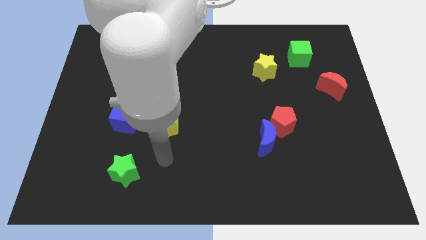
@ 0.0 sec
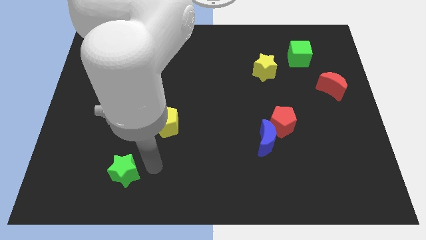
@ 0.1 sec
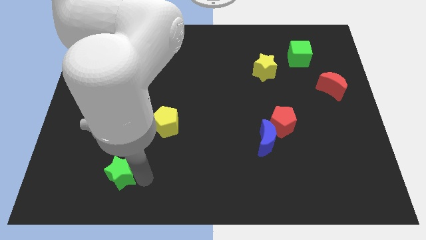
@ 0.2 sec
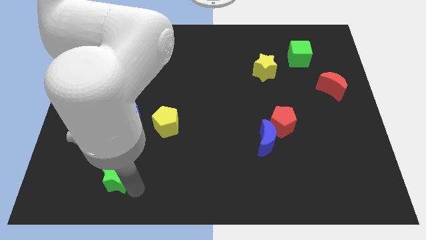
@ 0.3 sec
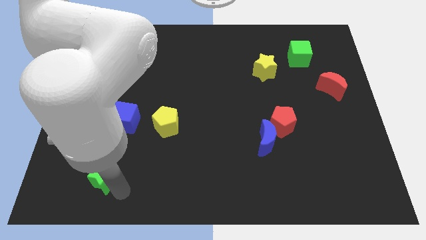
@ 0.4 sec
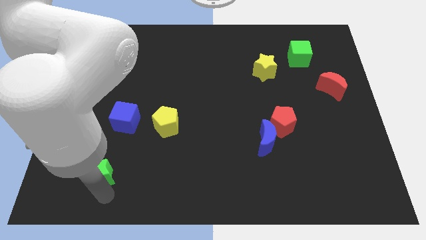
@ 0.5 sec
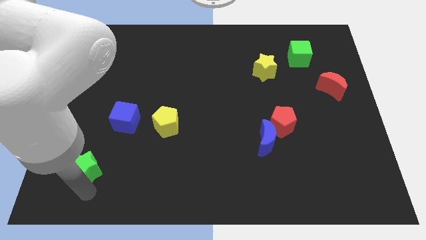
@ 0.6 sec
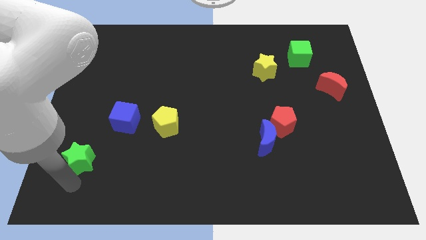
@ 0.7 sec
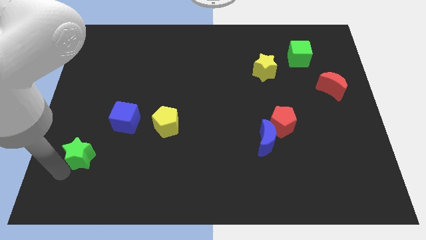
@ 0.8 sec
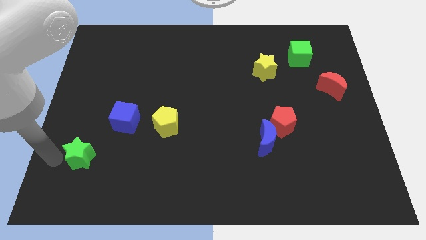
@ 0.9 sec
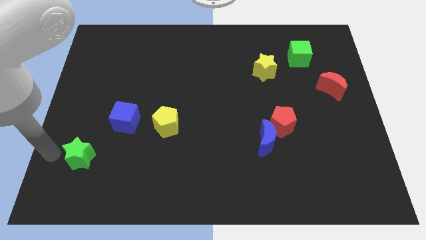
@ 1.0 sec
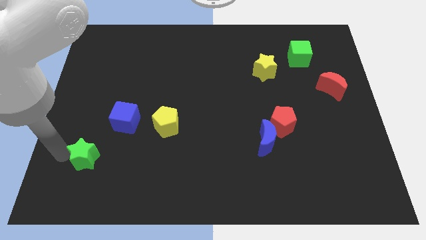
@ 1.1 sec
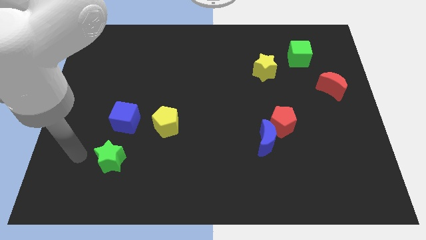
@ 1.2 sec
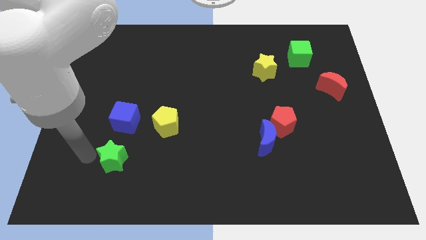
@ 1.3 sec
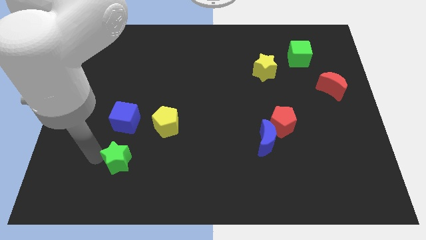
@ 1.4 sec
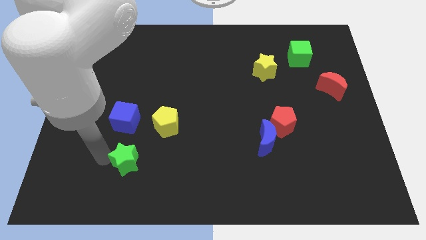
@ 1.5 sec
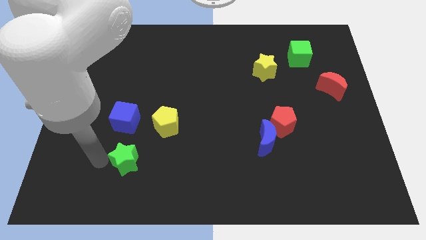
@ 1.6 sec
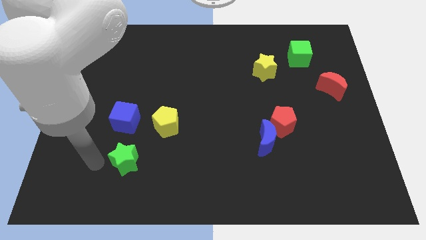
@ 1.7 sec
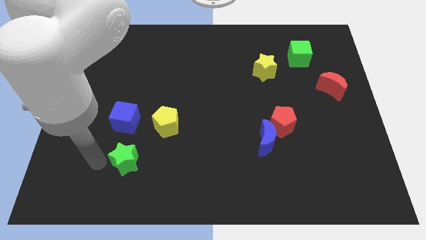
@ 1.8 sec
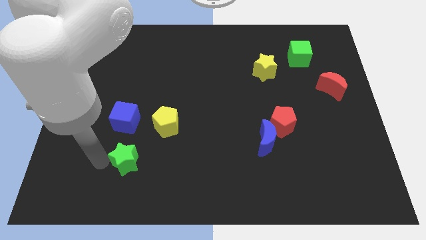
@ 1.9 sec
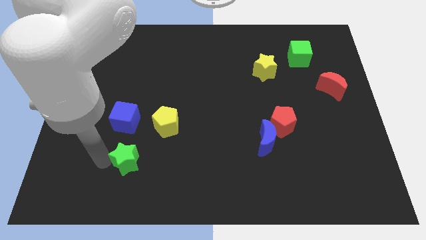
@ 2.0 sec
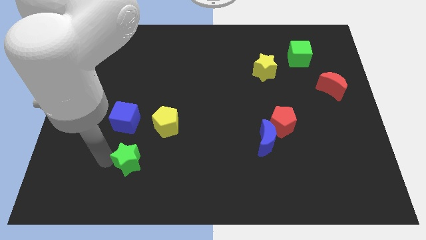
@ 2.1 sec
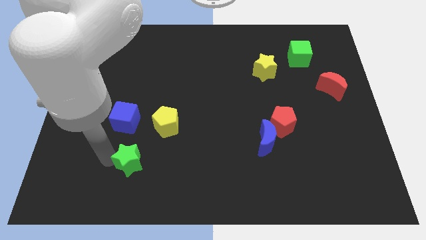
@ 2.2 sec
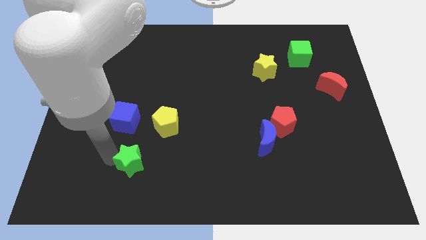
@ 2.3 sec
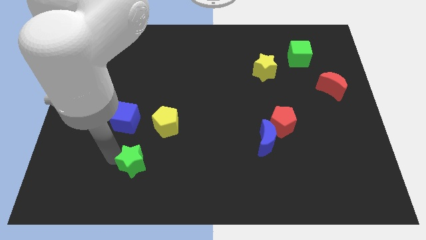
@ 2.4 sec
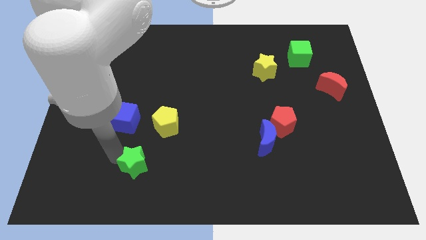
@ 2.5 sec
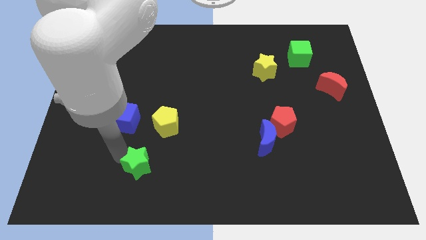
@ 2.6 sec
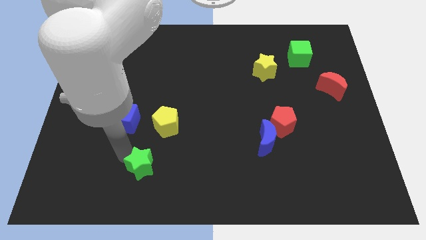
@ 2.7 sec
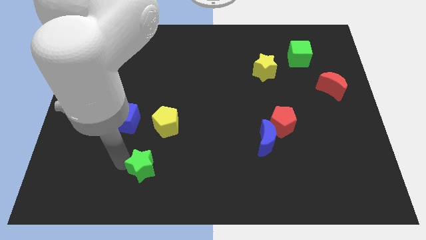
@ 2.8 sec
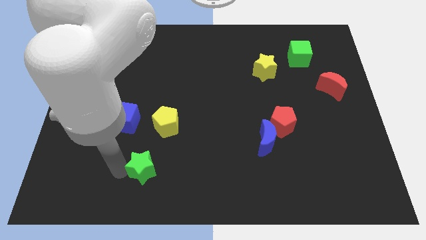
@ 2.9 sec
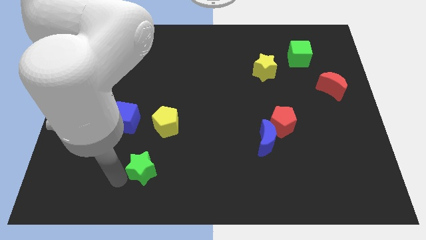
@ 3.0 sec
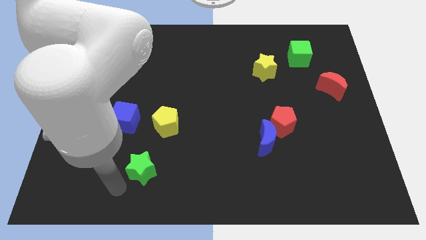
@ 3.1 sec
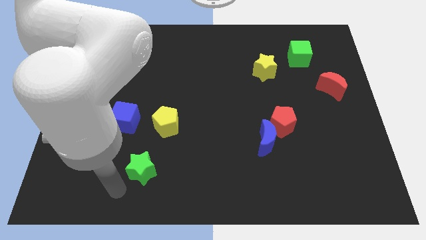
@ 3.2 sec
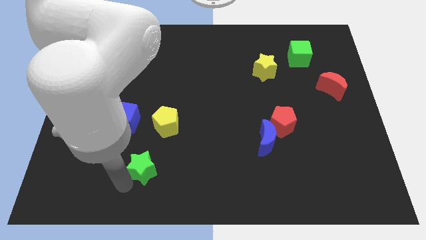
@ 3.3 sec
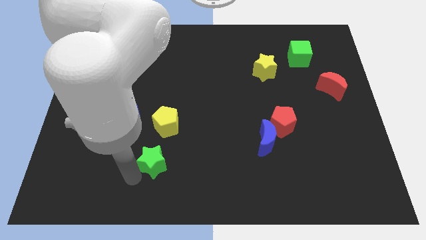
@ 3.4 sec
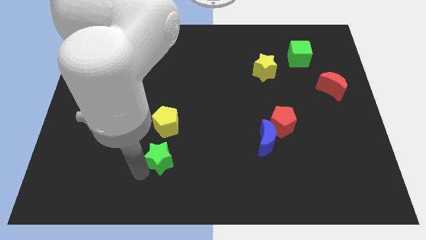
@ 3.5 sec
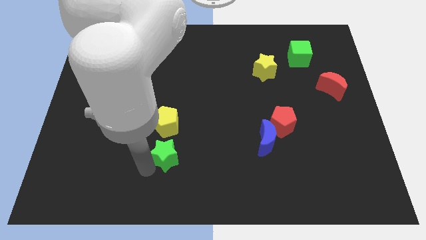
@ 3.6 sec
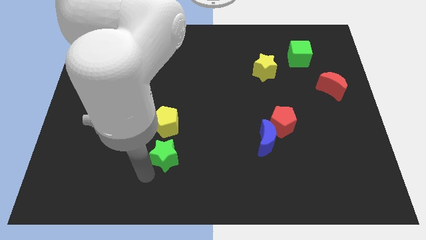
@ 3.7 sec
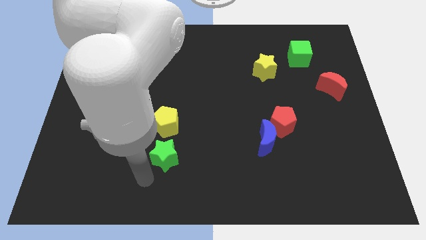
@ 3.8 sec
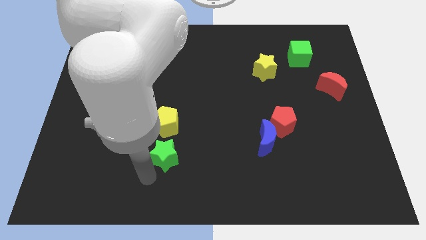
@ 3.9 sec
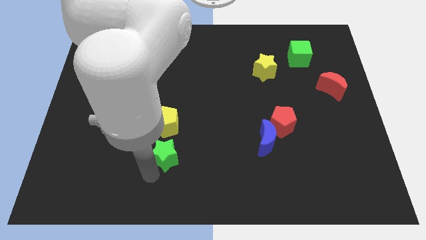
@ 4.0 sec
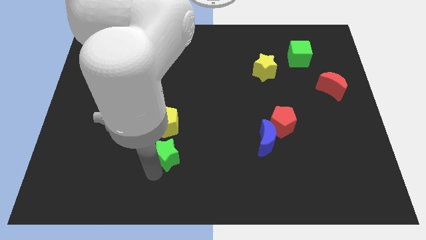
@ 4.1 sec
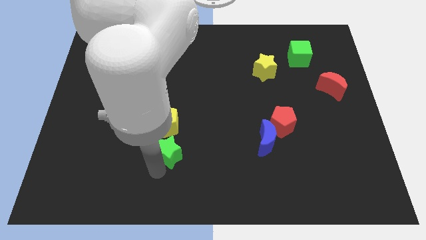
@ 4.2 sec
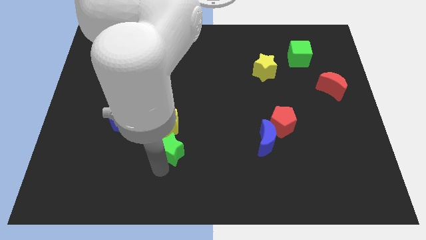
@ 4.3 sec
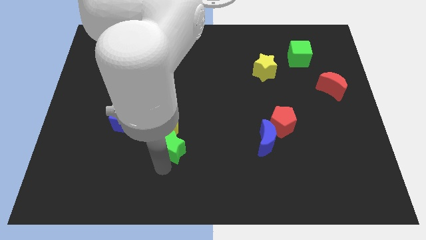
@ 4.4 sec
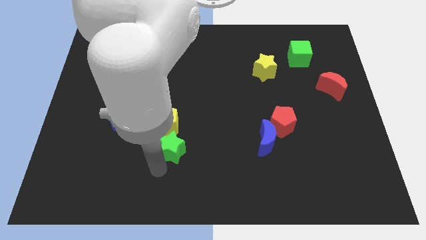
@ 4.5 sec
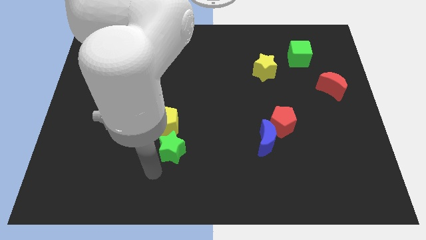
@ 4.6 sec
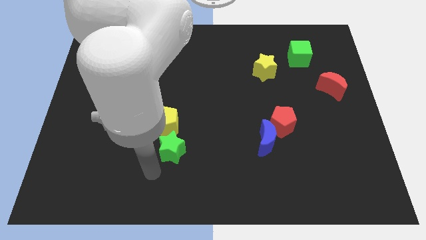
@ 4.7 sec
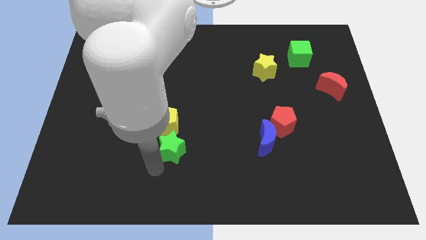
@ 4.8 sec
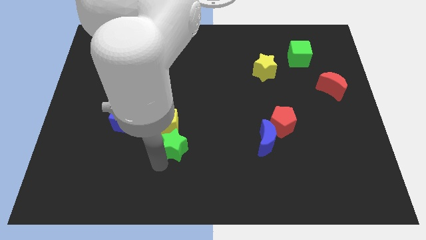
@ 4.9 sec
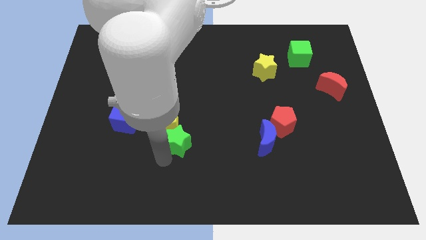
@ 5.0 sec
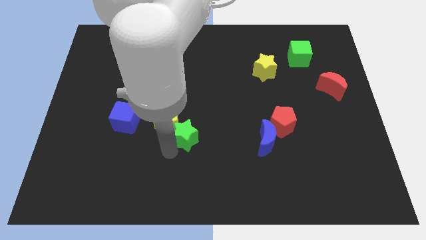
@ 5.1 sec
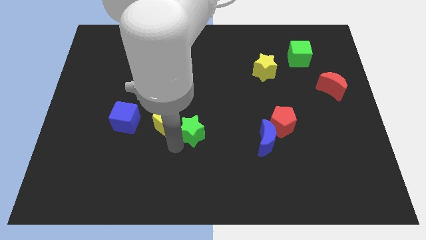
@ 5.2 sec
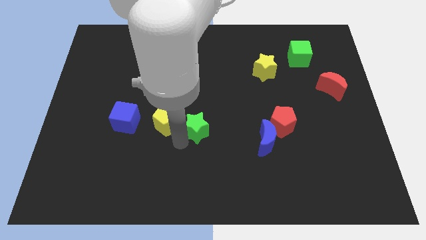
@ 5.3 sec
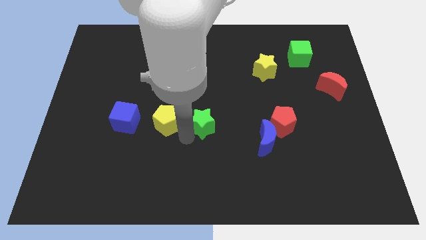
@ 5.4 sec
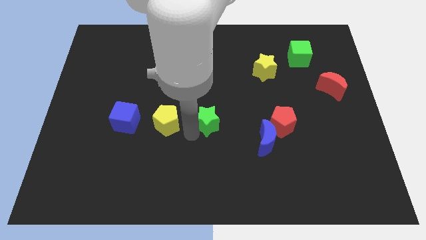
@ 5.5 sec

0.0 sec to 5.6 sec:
move the green star upwards and right

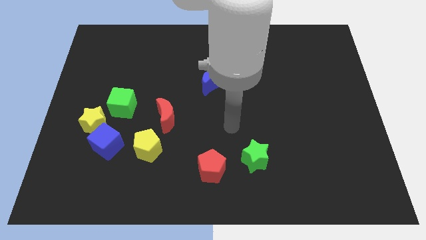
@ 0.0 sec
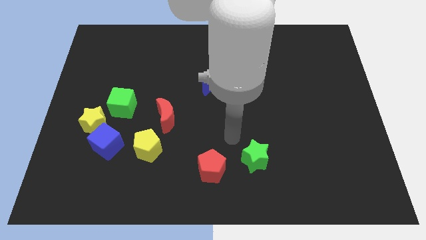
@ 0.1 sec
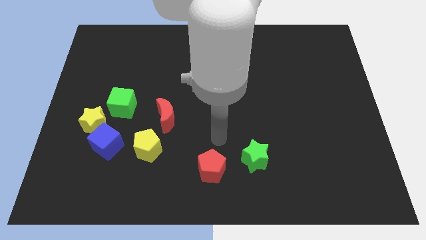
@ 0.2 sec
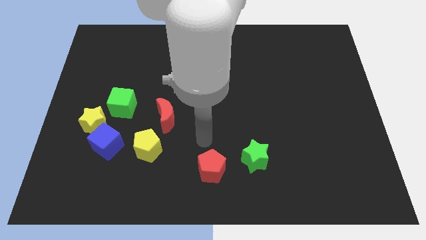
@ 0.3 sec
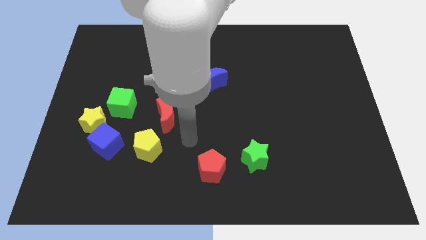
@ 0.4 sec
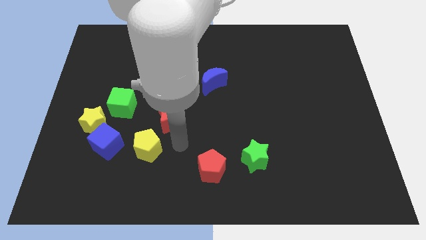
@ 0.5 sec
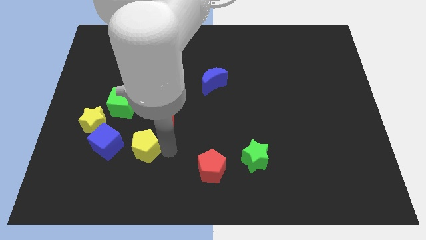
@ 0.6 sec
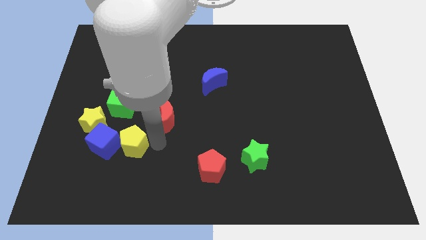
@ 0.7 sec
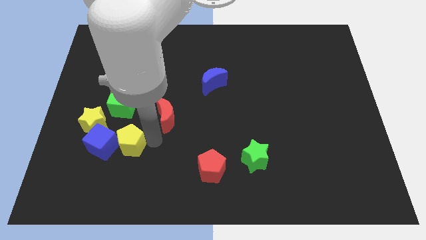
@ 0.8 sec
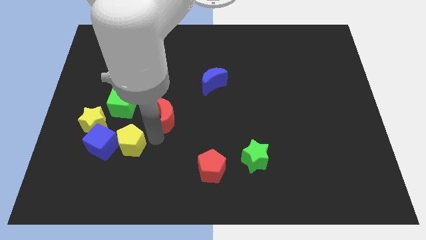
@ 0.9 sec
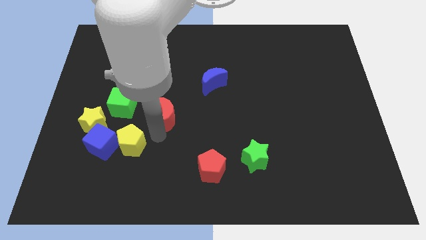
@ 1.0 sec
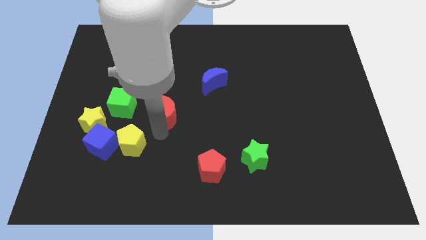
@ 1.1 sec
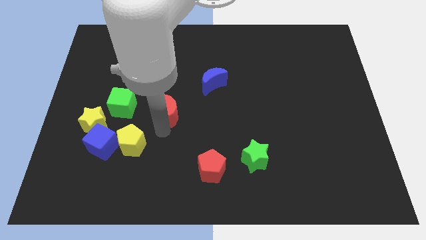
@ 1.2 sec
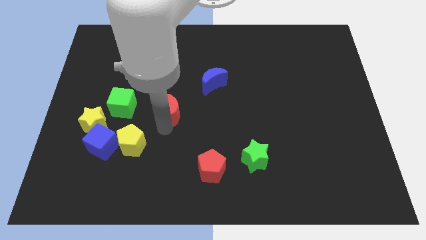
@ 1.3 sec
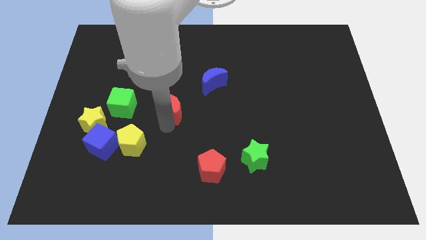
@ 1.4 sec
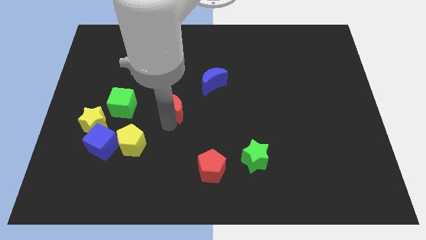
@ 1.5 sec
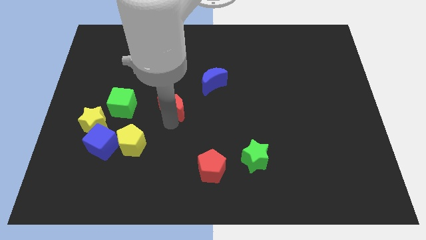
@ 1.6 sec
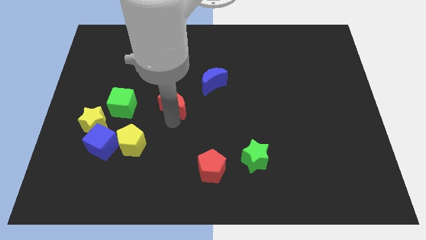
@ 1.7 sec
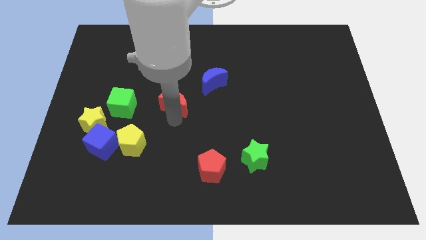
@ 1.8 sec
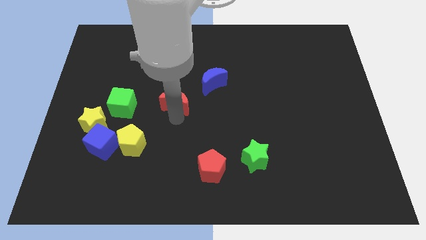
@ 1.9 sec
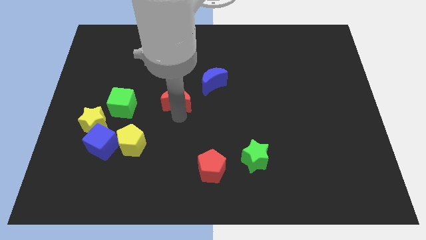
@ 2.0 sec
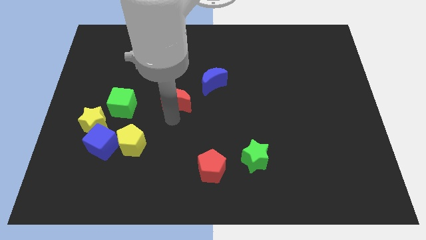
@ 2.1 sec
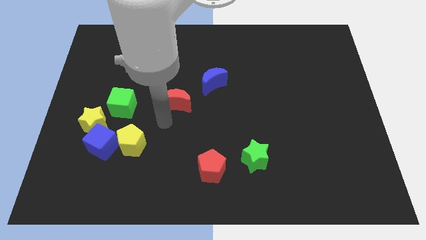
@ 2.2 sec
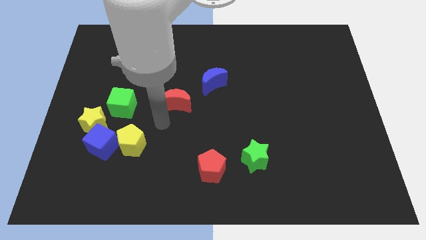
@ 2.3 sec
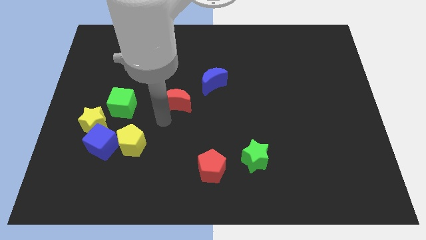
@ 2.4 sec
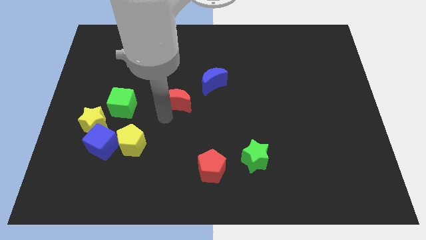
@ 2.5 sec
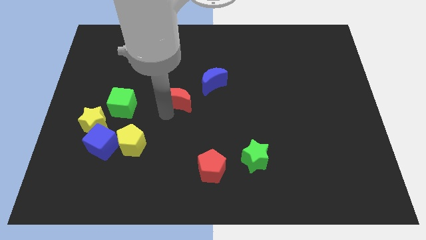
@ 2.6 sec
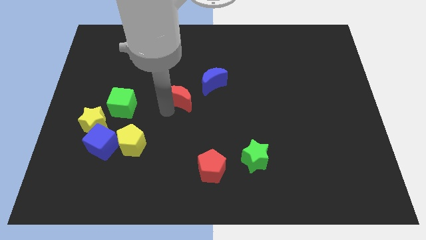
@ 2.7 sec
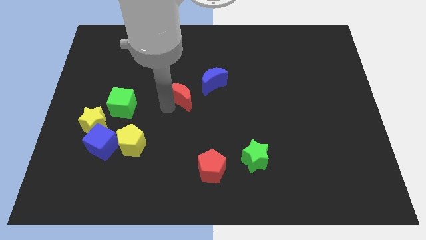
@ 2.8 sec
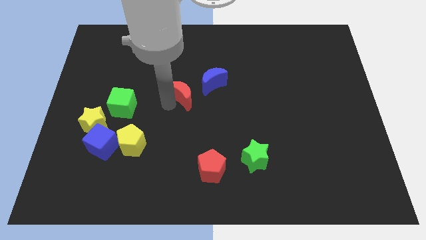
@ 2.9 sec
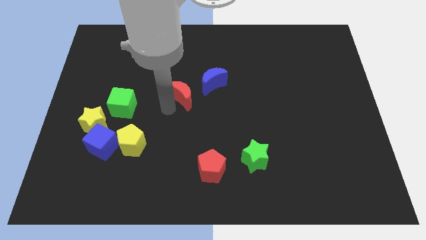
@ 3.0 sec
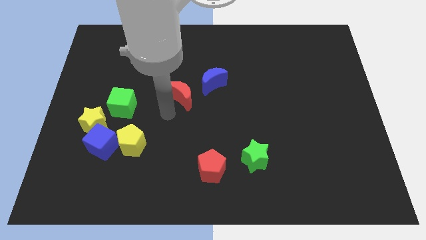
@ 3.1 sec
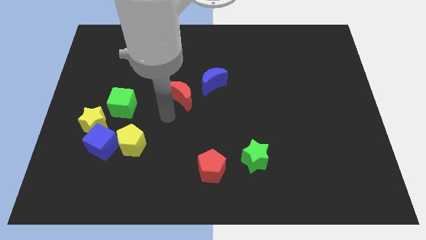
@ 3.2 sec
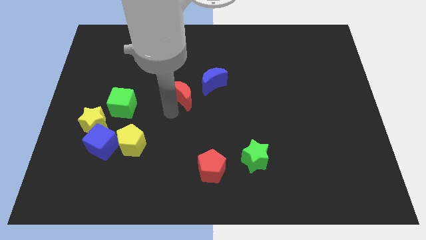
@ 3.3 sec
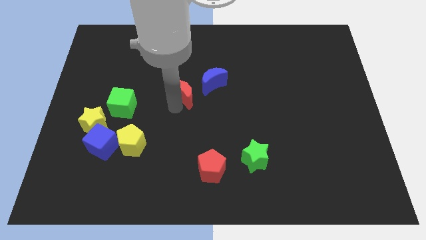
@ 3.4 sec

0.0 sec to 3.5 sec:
slightly move the red moon upwards and to the right
